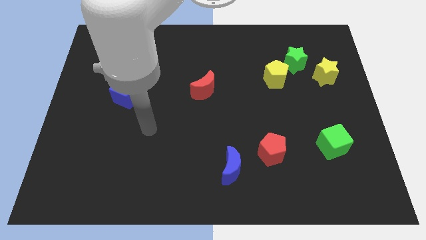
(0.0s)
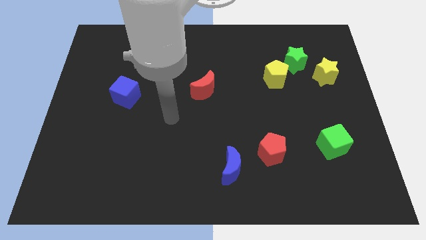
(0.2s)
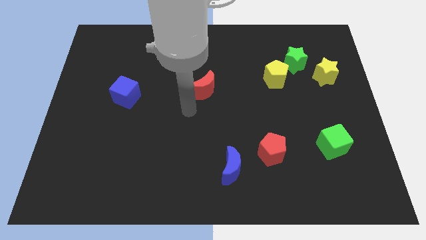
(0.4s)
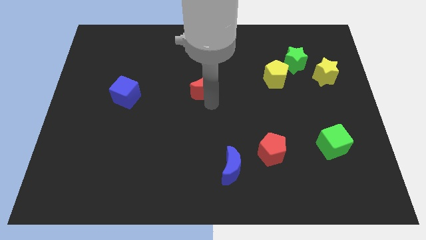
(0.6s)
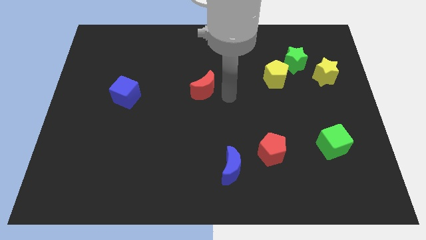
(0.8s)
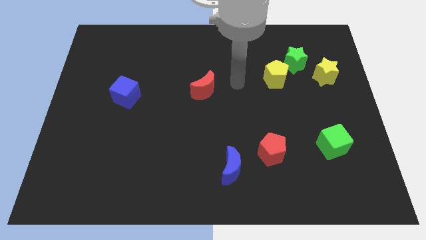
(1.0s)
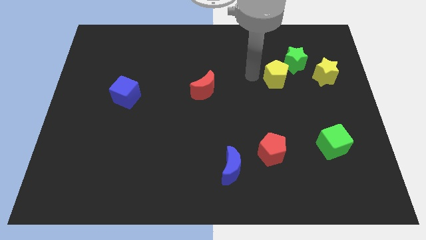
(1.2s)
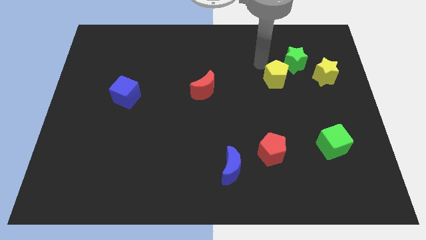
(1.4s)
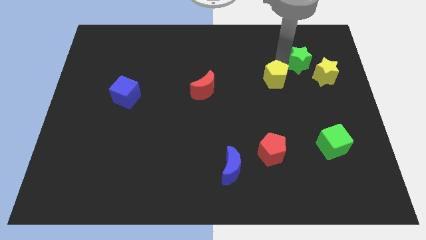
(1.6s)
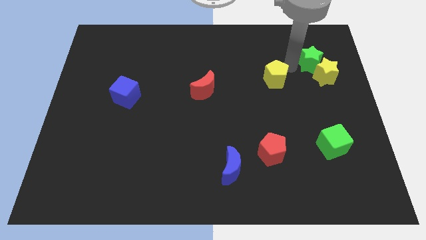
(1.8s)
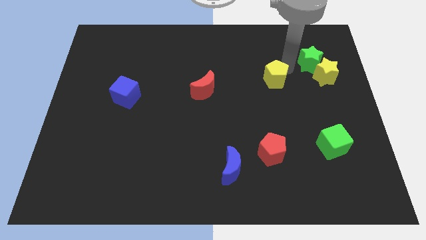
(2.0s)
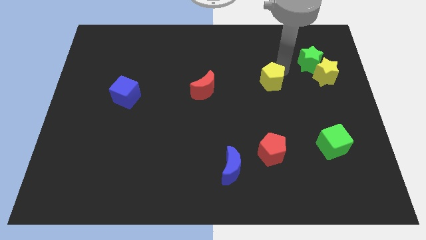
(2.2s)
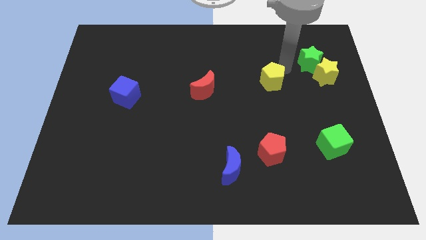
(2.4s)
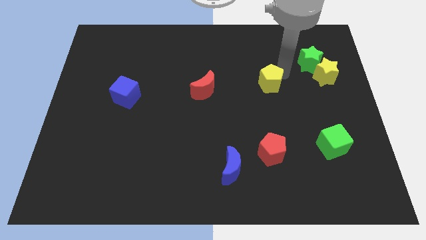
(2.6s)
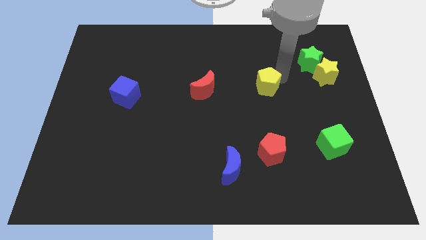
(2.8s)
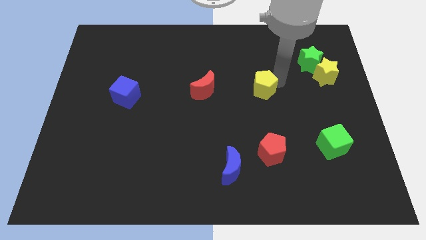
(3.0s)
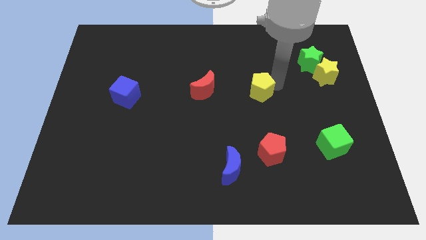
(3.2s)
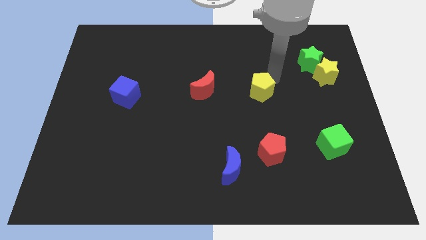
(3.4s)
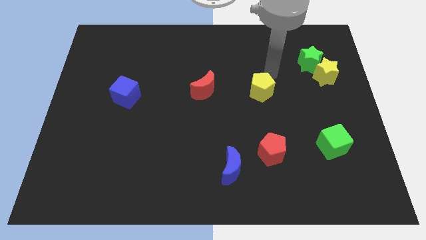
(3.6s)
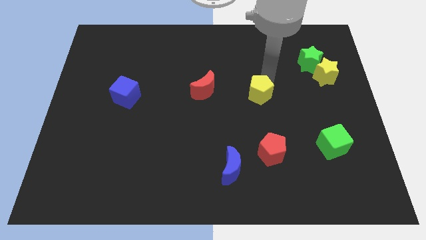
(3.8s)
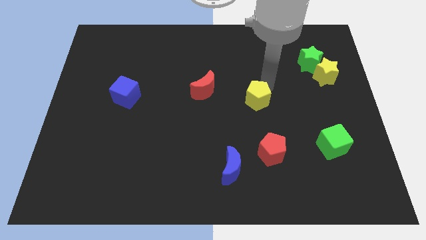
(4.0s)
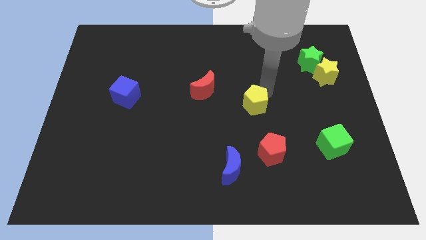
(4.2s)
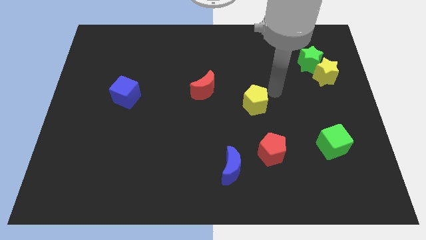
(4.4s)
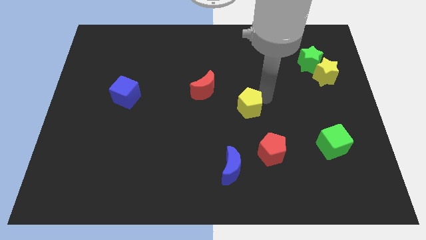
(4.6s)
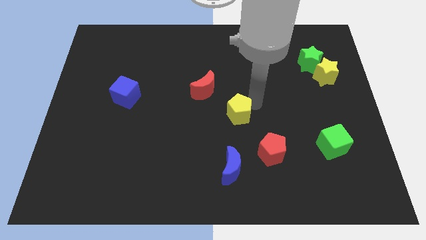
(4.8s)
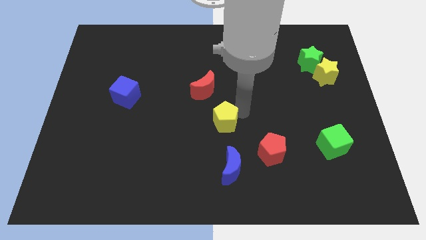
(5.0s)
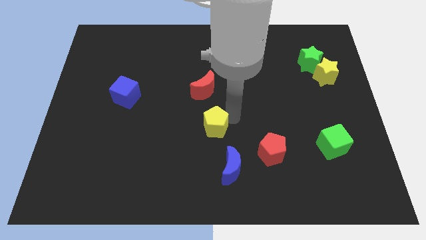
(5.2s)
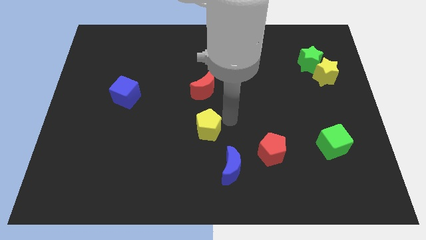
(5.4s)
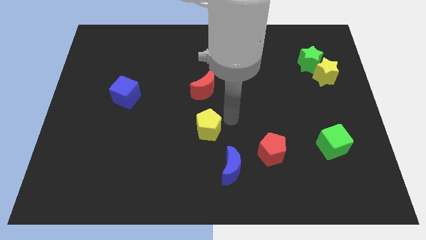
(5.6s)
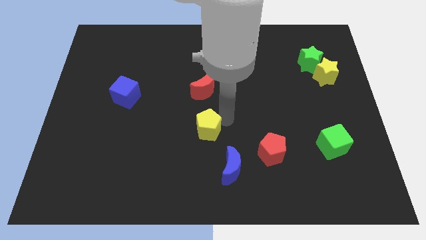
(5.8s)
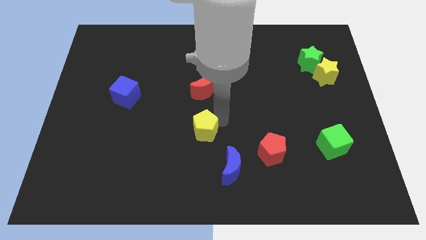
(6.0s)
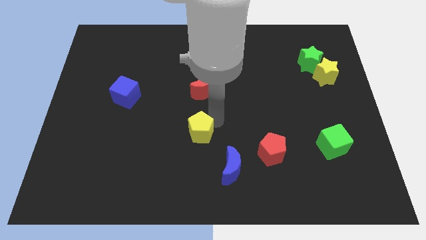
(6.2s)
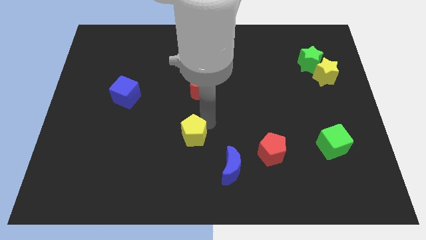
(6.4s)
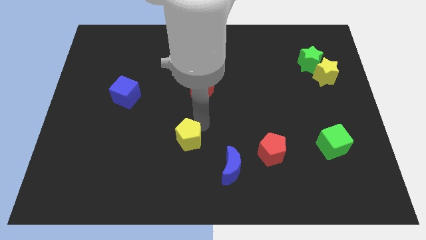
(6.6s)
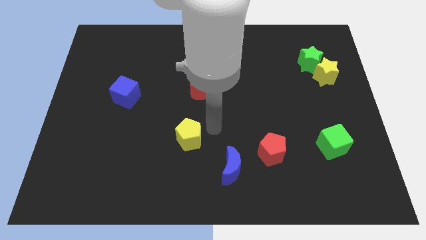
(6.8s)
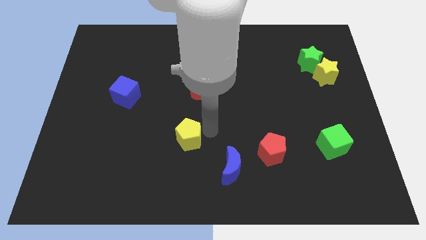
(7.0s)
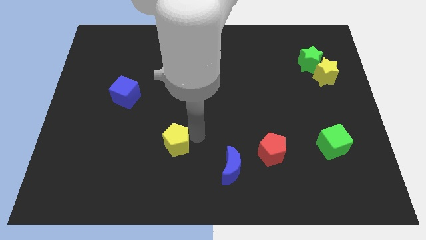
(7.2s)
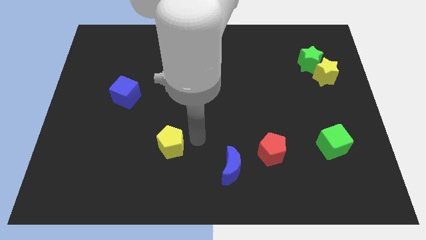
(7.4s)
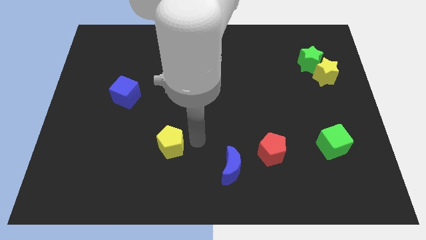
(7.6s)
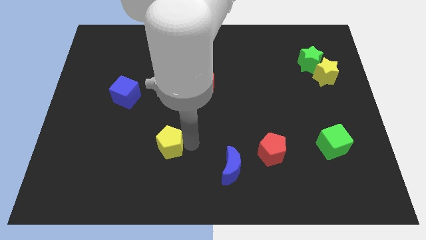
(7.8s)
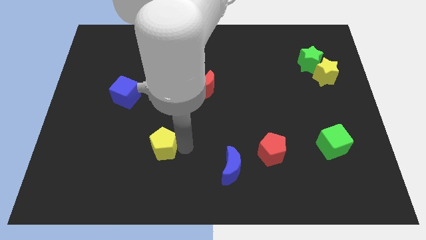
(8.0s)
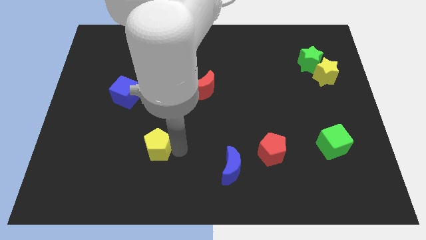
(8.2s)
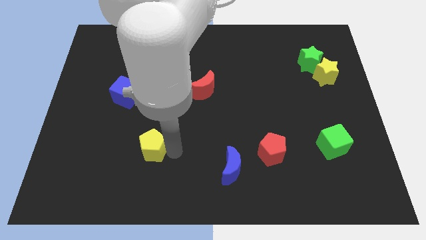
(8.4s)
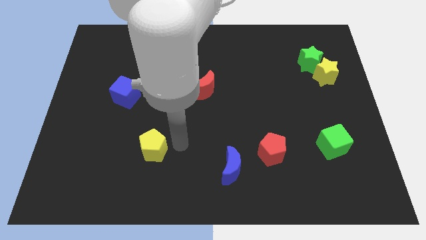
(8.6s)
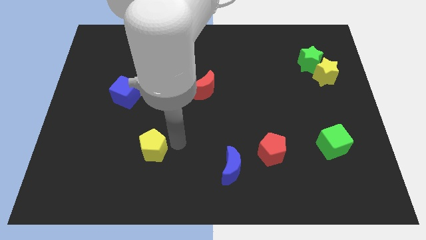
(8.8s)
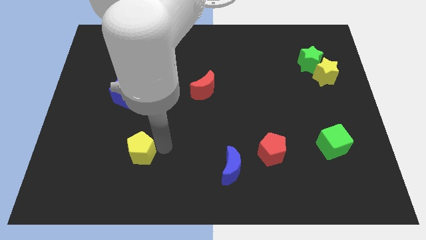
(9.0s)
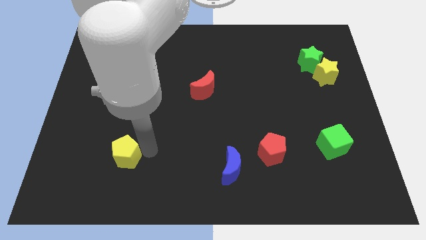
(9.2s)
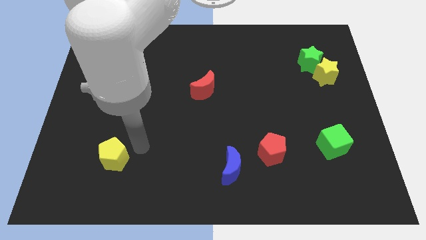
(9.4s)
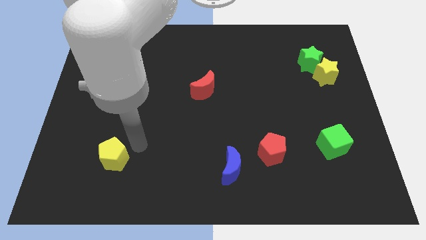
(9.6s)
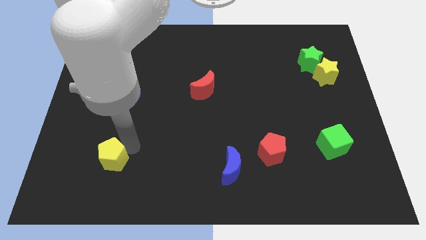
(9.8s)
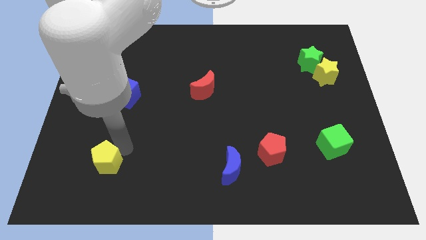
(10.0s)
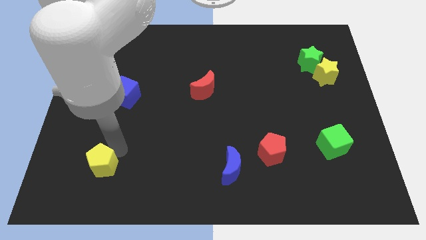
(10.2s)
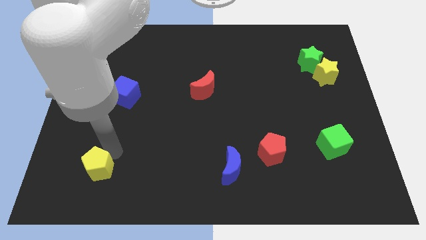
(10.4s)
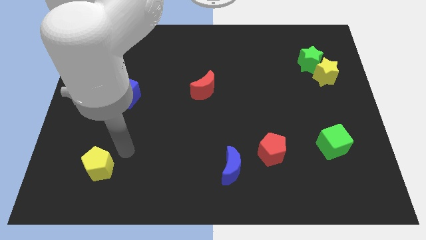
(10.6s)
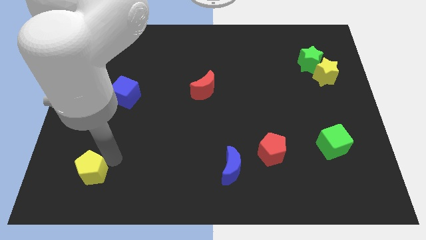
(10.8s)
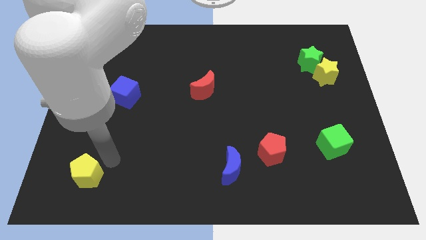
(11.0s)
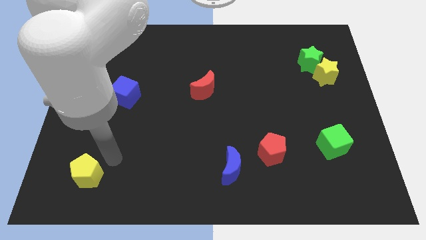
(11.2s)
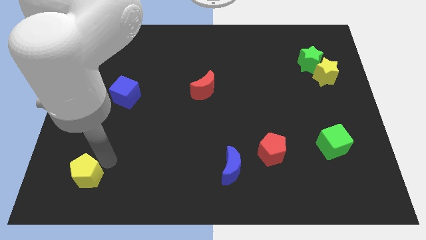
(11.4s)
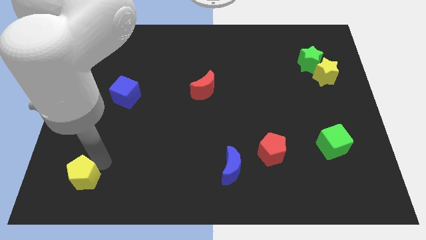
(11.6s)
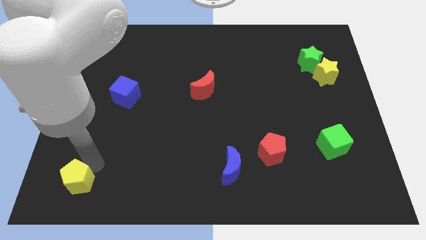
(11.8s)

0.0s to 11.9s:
move the yellow pentagon to the bottom left corner
